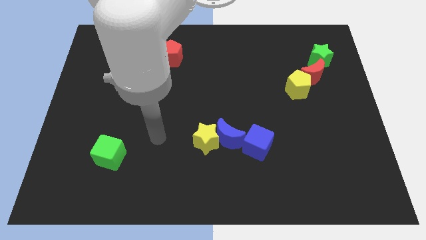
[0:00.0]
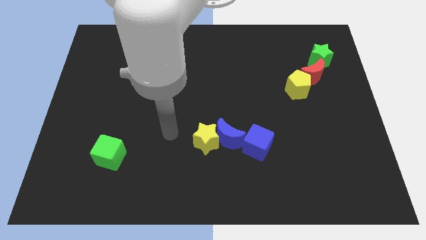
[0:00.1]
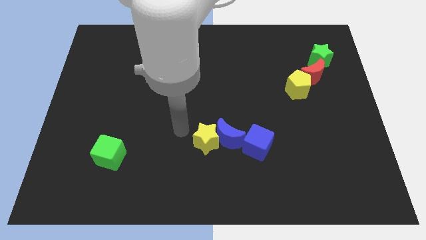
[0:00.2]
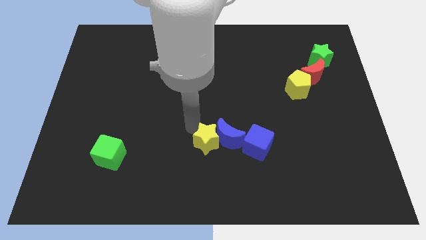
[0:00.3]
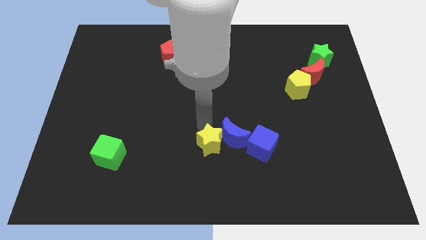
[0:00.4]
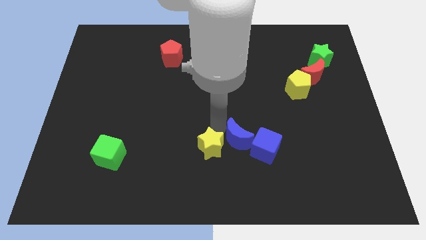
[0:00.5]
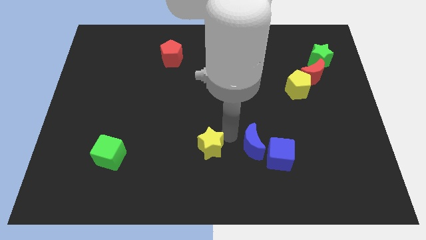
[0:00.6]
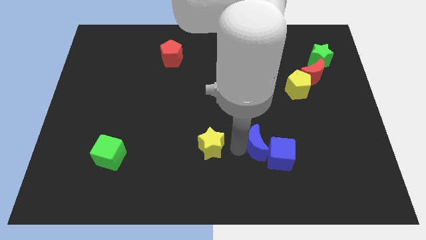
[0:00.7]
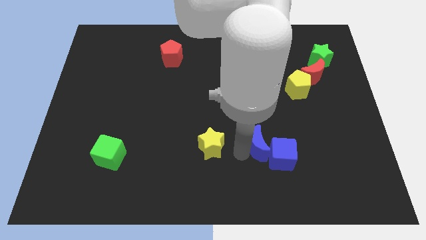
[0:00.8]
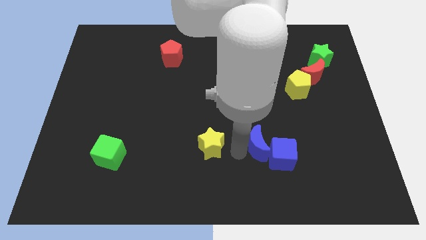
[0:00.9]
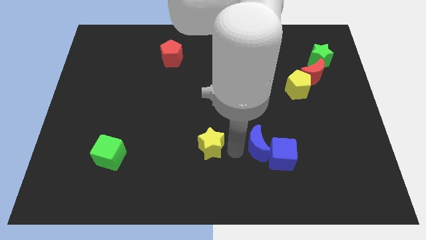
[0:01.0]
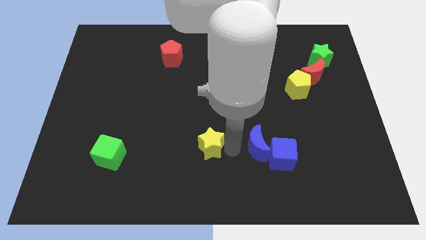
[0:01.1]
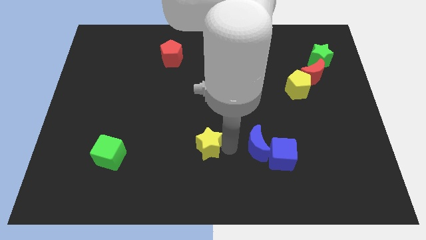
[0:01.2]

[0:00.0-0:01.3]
pull the yellow star apart from the blue moon

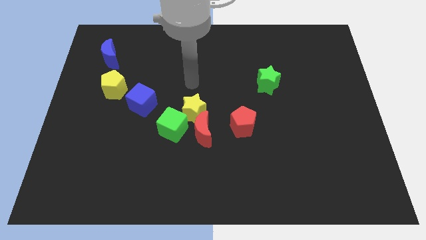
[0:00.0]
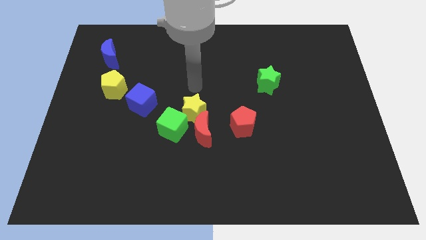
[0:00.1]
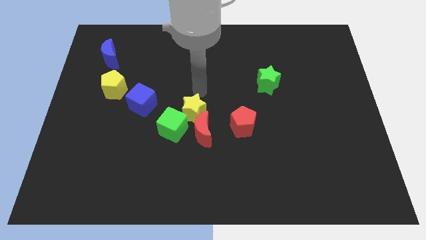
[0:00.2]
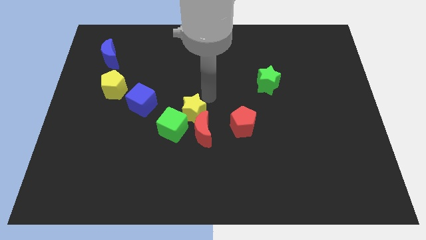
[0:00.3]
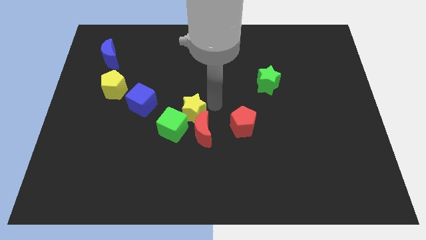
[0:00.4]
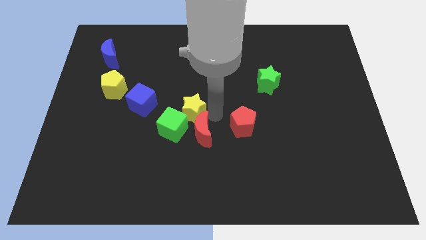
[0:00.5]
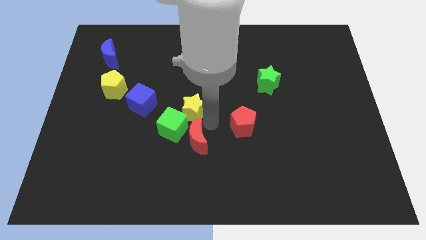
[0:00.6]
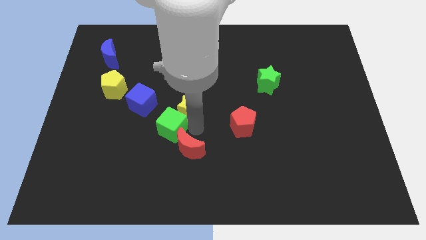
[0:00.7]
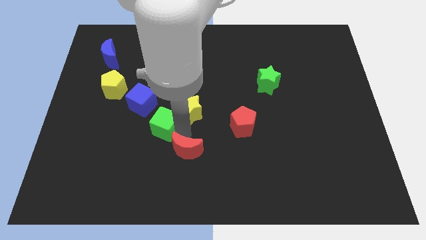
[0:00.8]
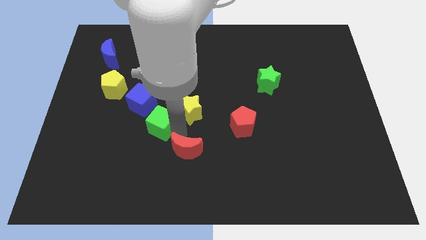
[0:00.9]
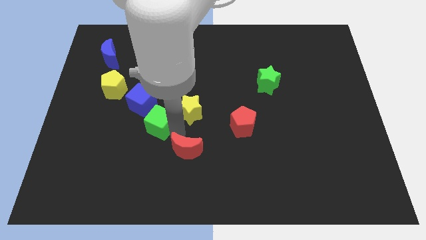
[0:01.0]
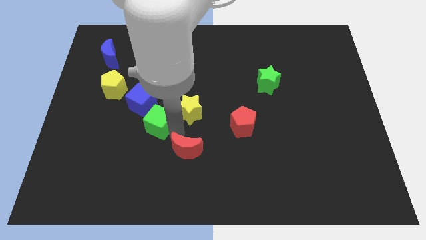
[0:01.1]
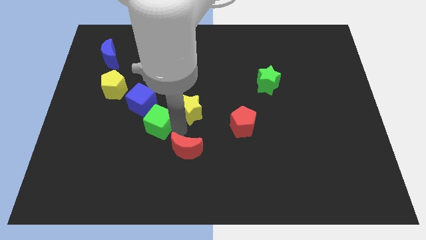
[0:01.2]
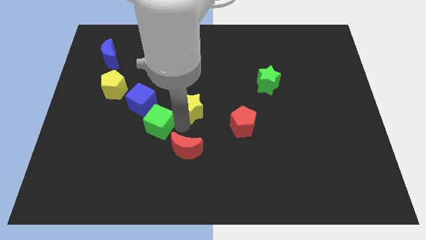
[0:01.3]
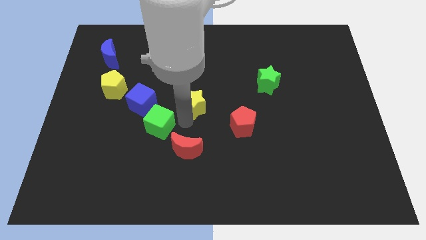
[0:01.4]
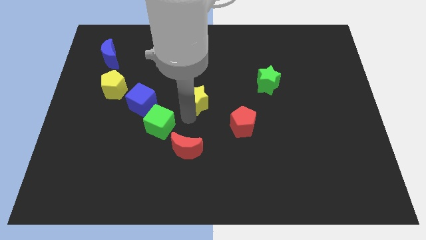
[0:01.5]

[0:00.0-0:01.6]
separate the yellow star from the red moon and green cube

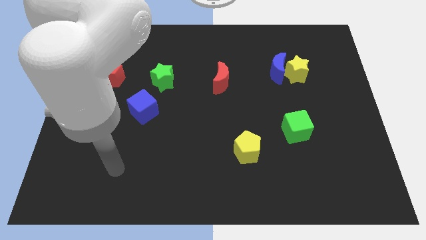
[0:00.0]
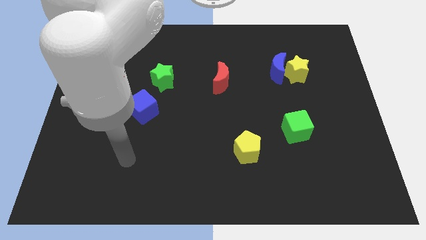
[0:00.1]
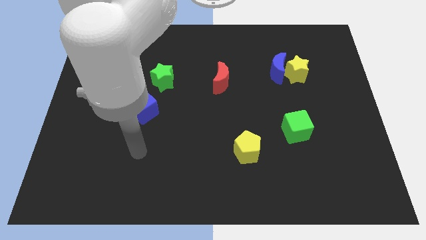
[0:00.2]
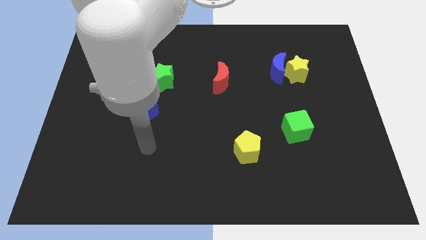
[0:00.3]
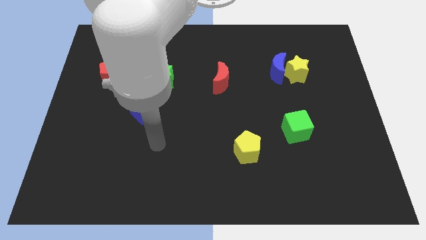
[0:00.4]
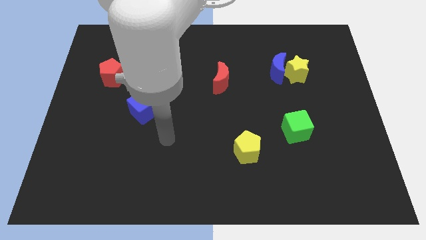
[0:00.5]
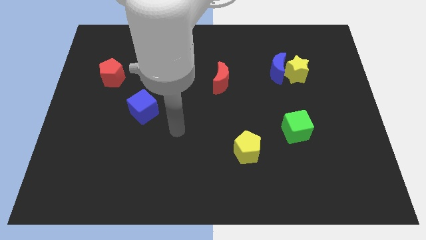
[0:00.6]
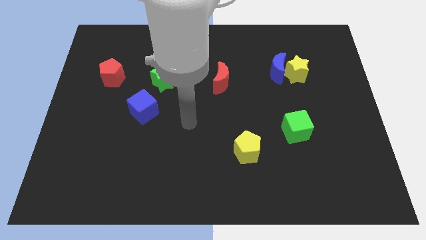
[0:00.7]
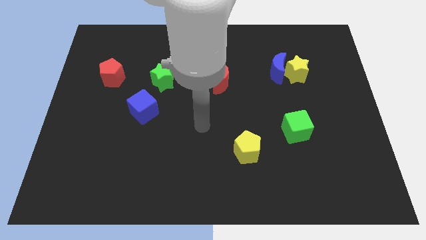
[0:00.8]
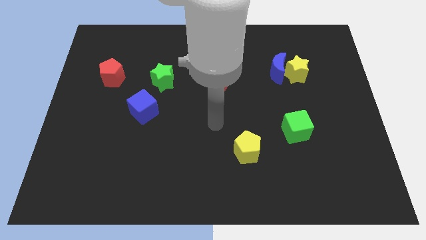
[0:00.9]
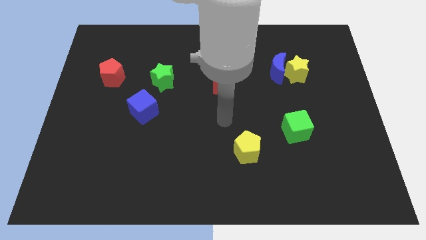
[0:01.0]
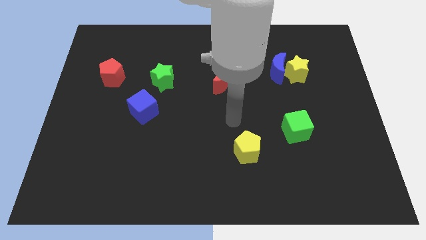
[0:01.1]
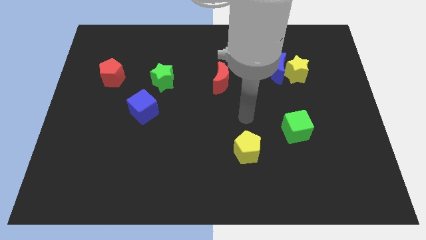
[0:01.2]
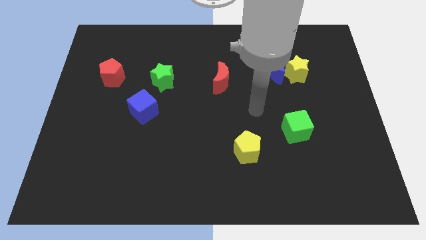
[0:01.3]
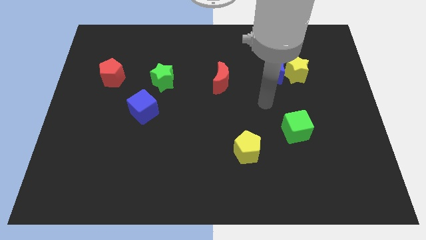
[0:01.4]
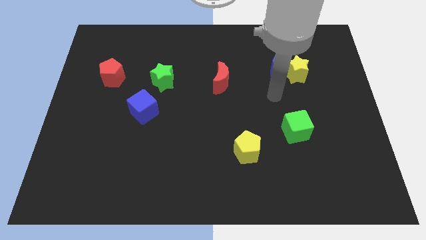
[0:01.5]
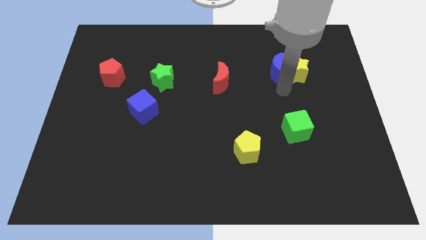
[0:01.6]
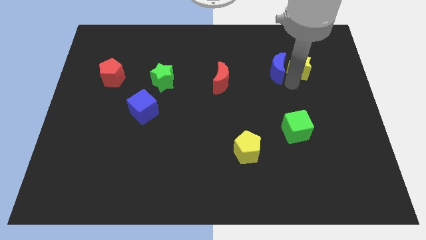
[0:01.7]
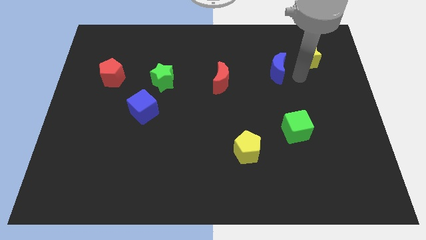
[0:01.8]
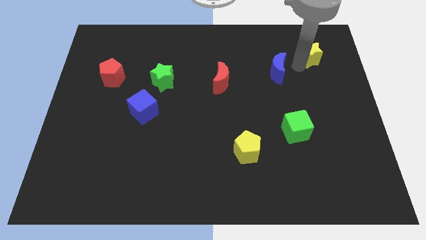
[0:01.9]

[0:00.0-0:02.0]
pull the blue moon apart from the yellow star

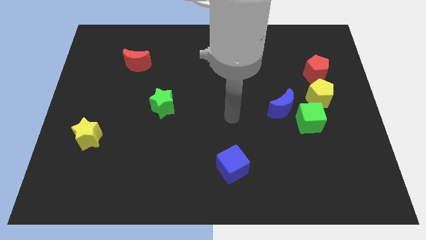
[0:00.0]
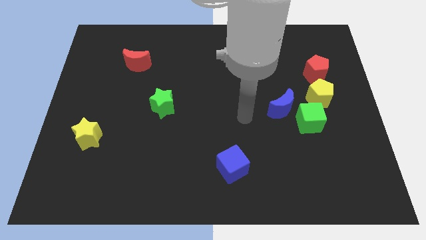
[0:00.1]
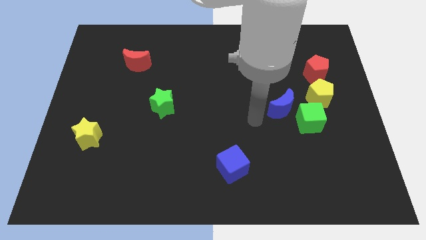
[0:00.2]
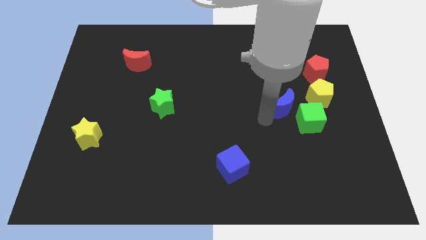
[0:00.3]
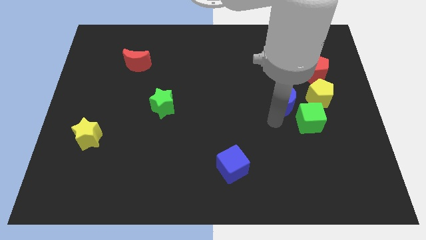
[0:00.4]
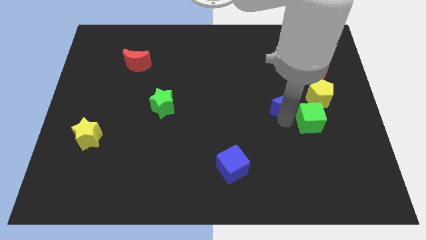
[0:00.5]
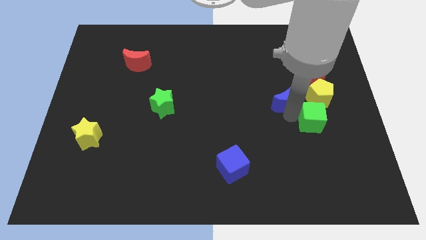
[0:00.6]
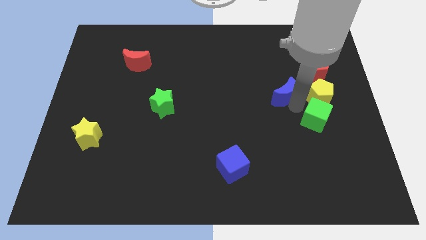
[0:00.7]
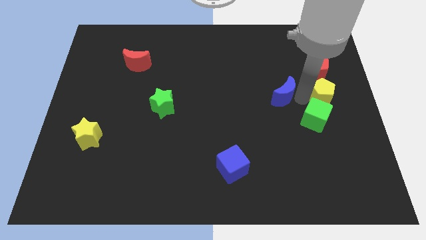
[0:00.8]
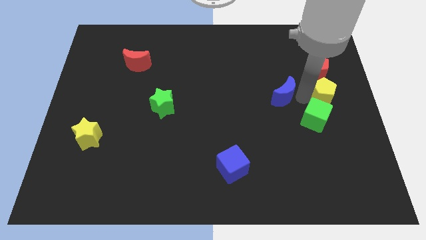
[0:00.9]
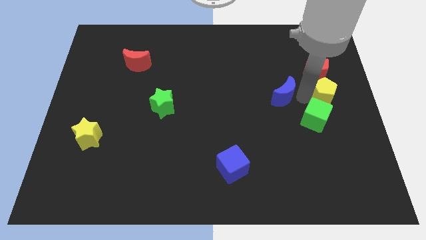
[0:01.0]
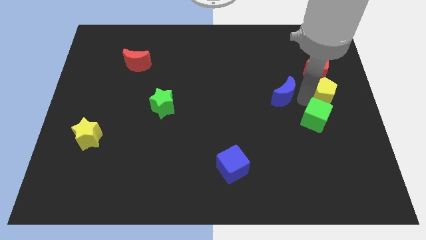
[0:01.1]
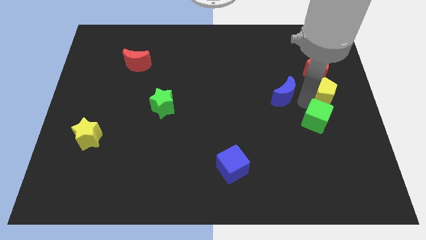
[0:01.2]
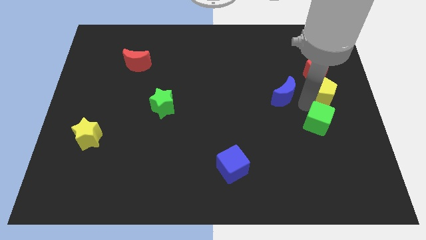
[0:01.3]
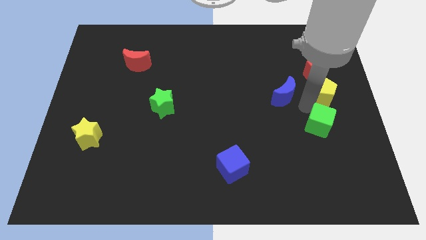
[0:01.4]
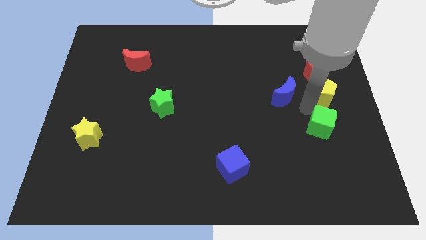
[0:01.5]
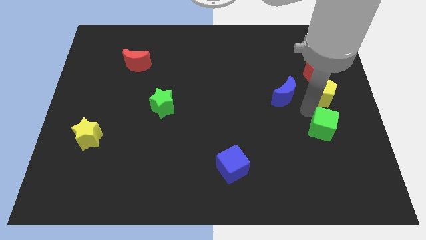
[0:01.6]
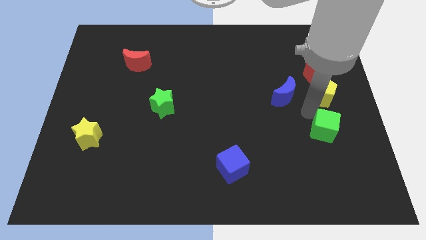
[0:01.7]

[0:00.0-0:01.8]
pull the green cube apart from the blue moon and yellow pentagon

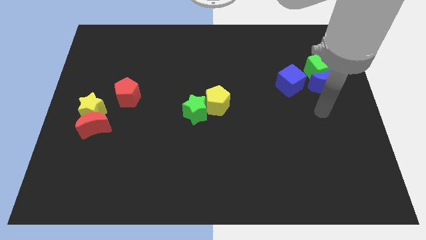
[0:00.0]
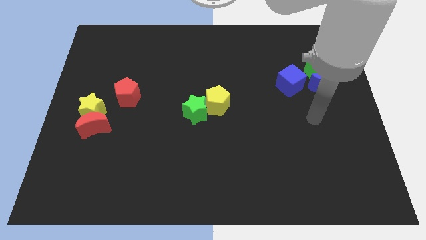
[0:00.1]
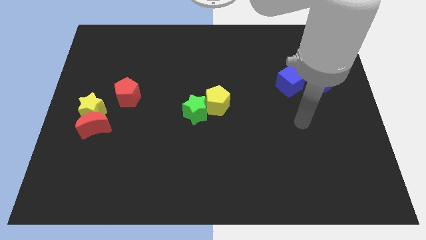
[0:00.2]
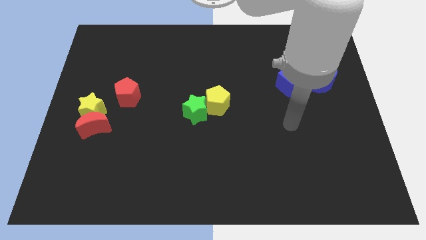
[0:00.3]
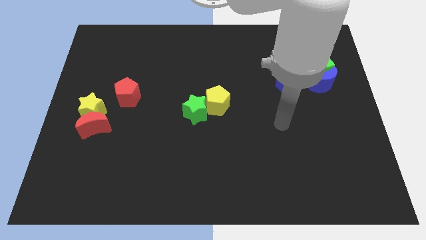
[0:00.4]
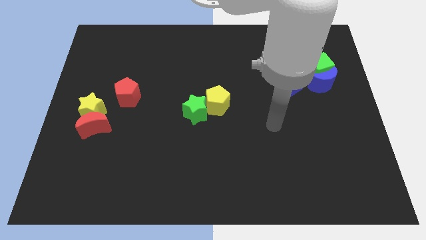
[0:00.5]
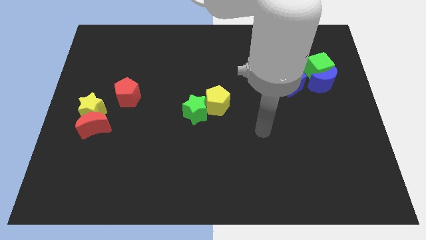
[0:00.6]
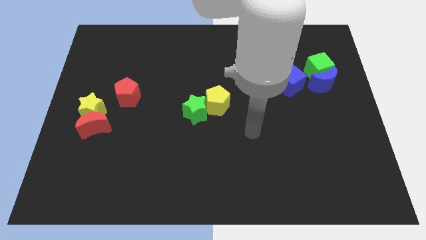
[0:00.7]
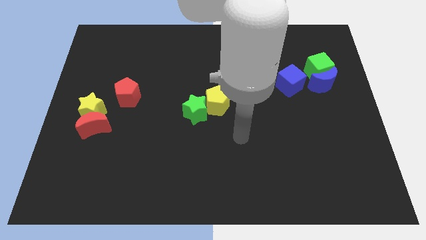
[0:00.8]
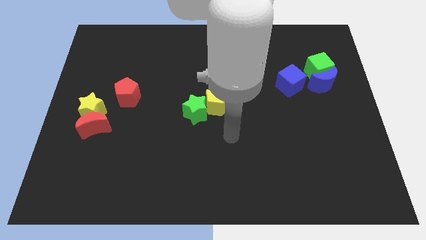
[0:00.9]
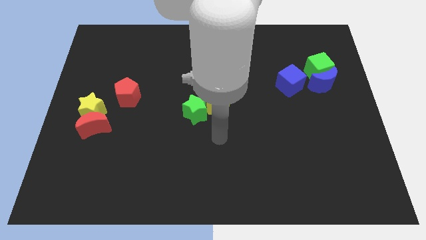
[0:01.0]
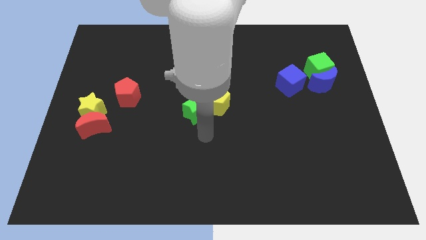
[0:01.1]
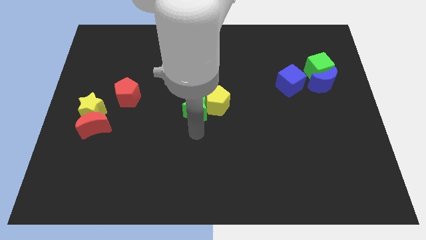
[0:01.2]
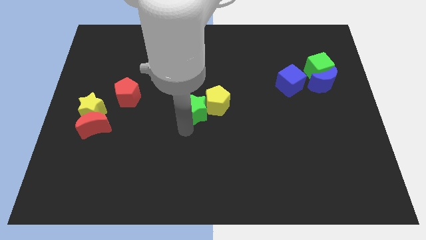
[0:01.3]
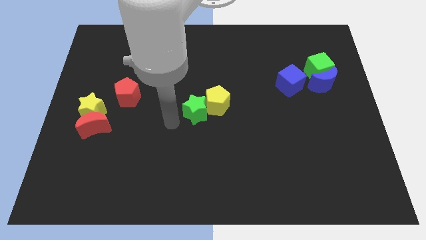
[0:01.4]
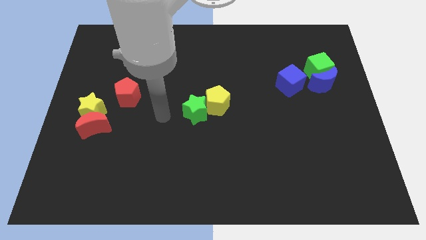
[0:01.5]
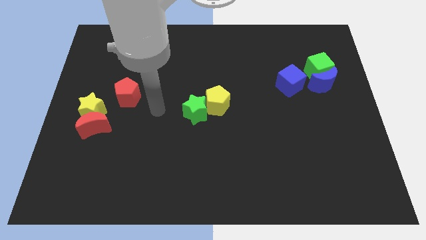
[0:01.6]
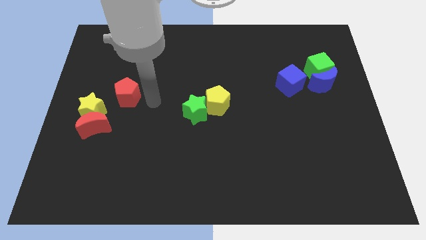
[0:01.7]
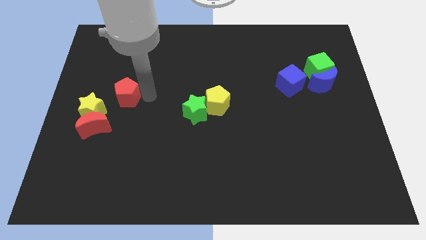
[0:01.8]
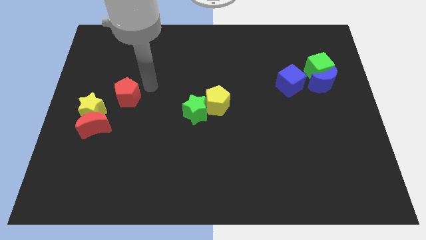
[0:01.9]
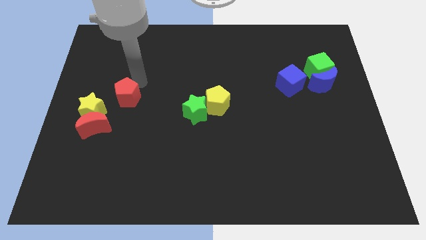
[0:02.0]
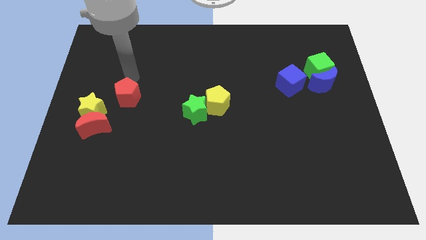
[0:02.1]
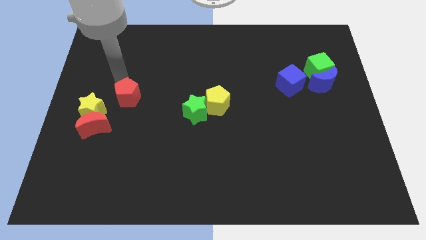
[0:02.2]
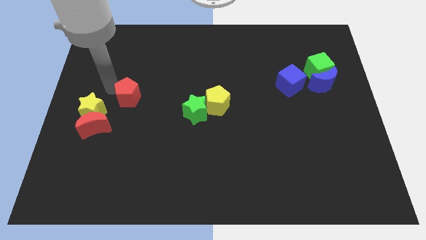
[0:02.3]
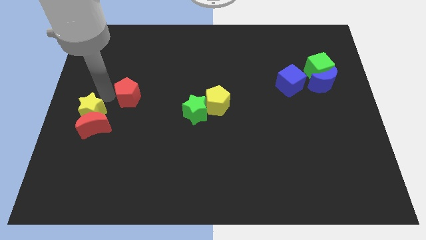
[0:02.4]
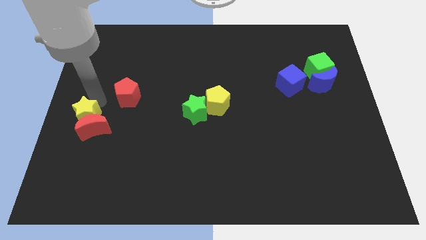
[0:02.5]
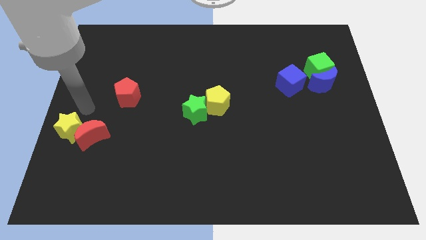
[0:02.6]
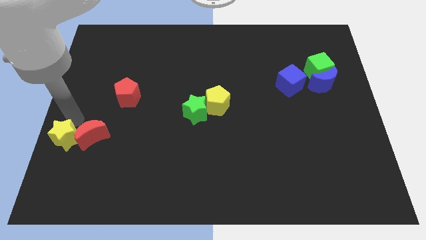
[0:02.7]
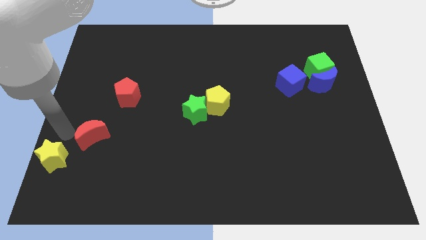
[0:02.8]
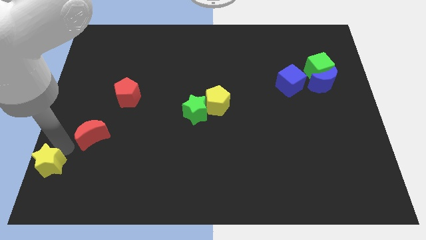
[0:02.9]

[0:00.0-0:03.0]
move the red moon away from the yellow star
